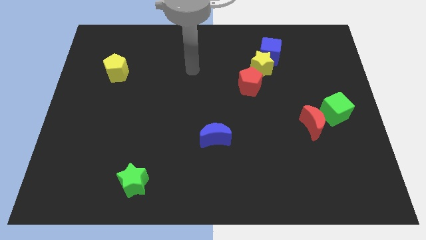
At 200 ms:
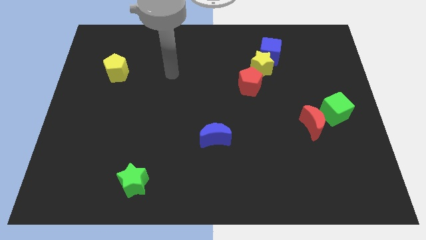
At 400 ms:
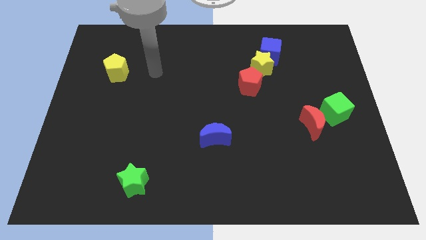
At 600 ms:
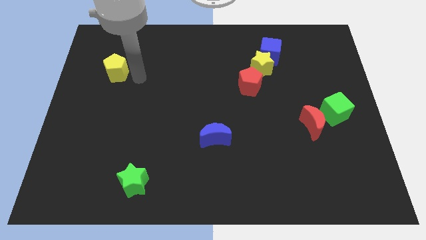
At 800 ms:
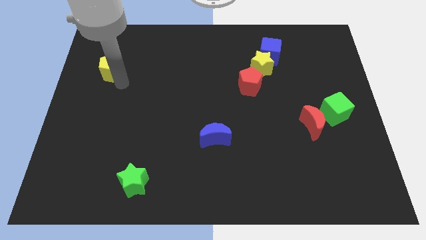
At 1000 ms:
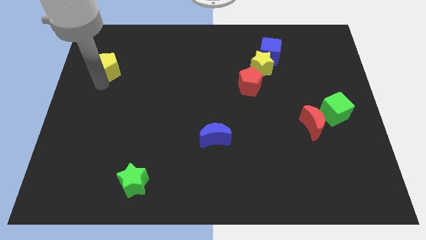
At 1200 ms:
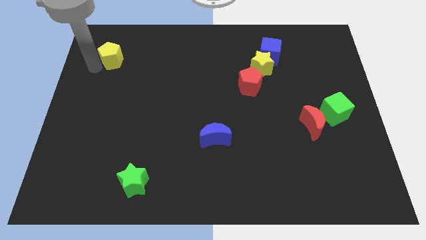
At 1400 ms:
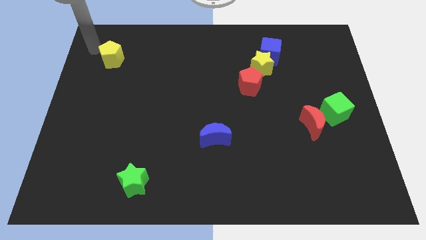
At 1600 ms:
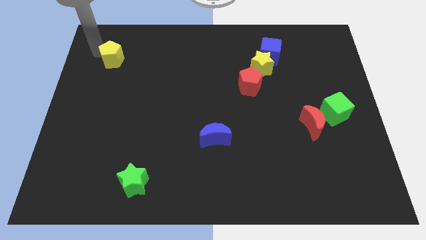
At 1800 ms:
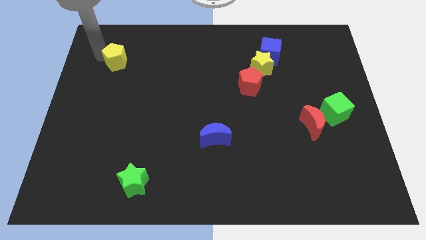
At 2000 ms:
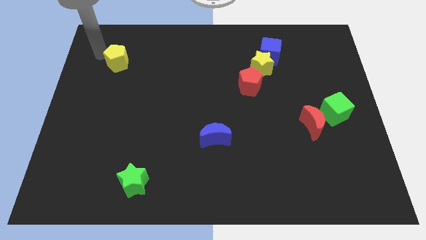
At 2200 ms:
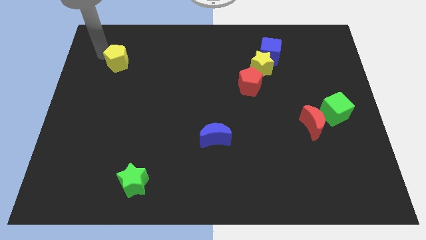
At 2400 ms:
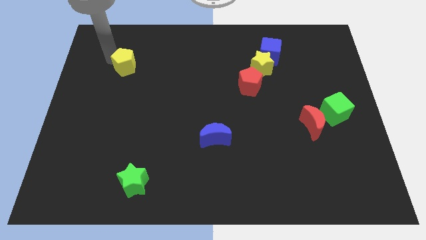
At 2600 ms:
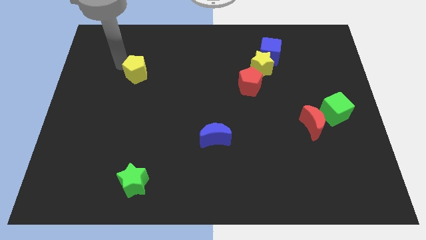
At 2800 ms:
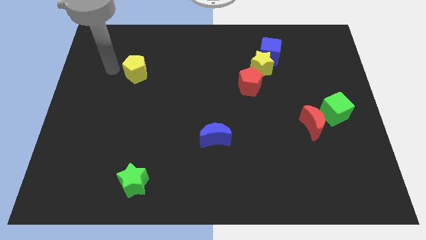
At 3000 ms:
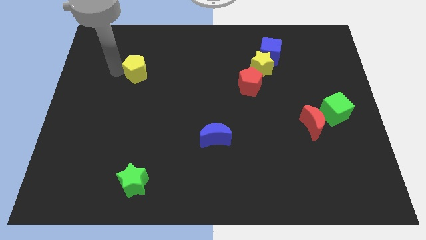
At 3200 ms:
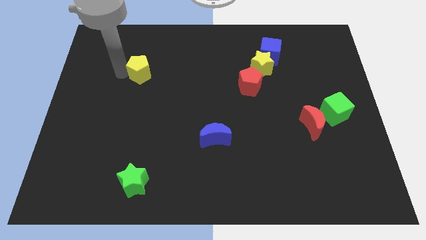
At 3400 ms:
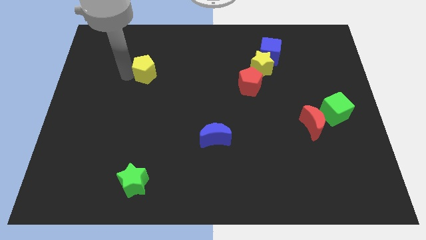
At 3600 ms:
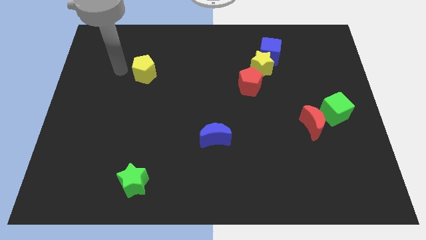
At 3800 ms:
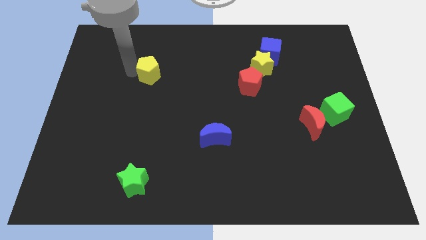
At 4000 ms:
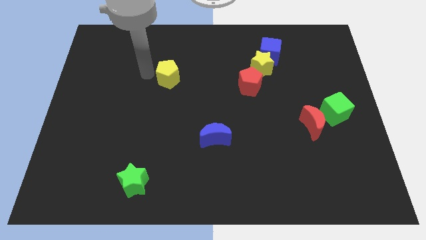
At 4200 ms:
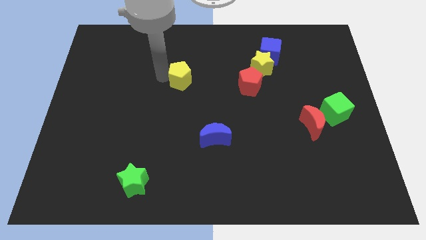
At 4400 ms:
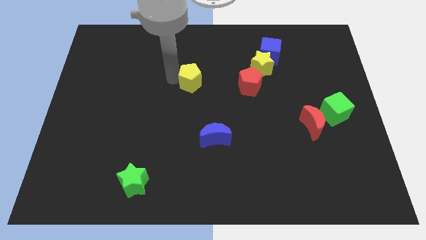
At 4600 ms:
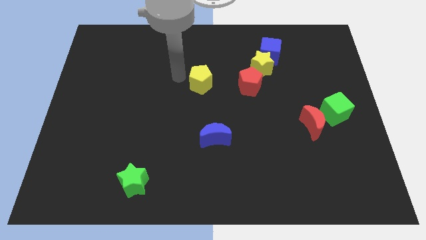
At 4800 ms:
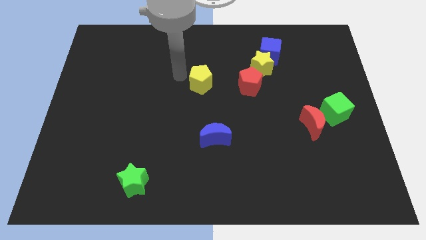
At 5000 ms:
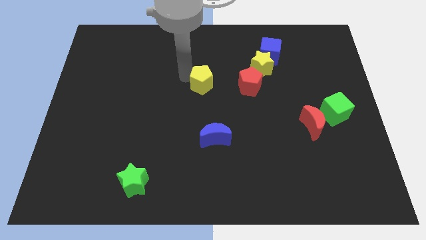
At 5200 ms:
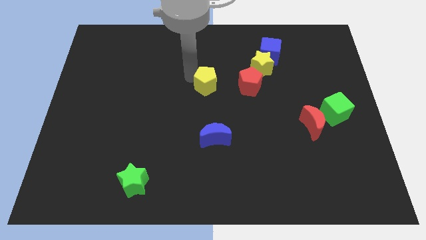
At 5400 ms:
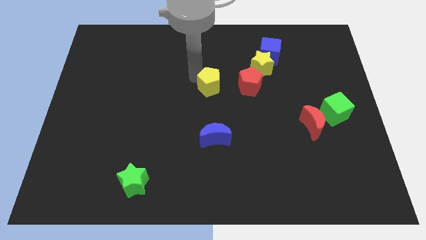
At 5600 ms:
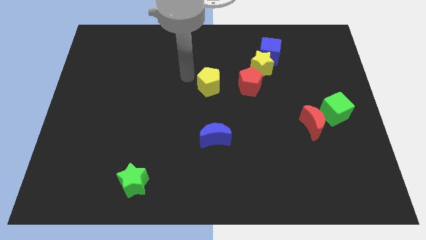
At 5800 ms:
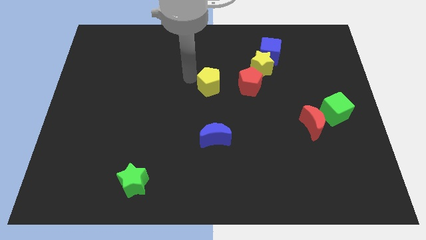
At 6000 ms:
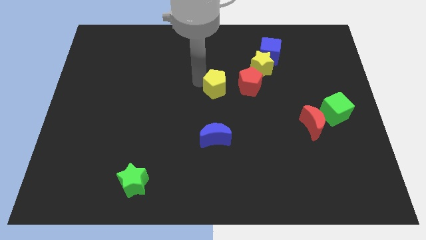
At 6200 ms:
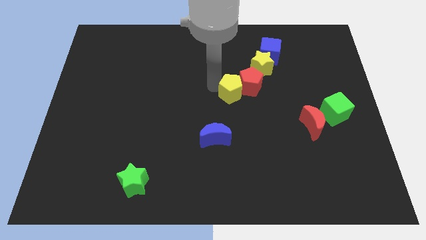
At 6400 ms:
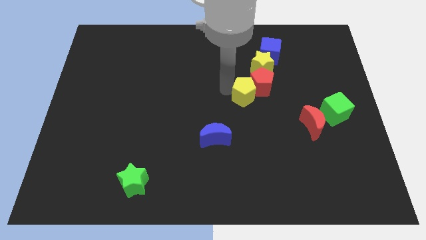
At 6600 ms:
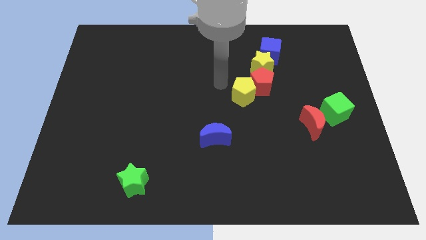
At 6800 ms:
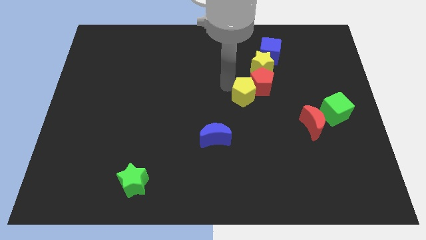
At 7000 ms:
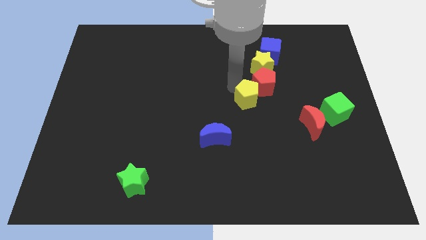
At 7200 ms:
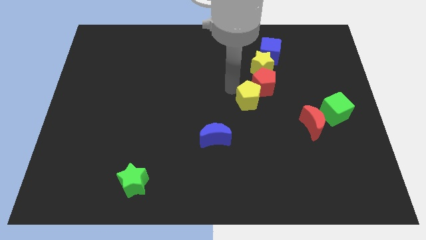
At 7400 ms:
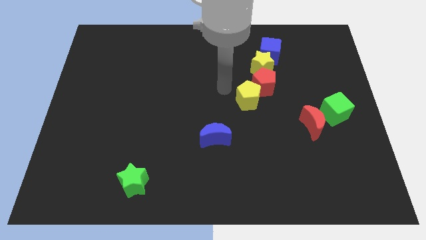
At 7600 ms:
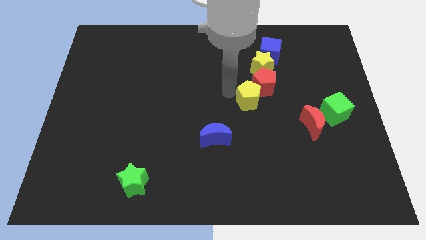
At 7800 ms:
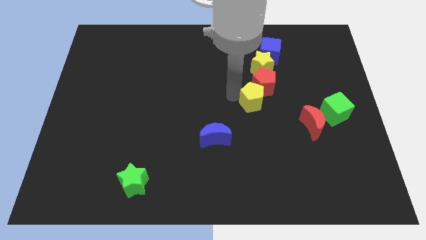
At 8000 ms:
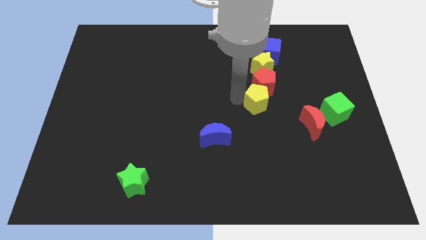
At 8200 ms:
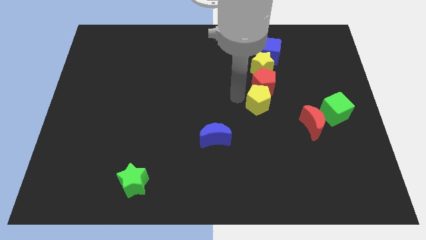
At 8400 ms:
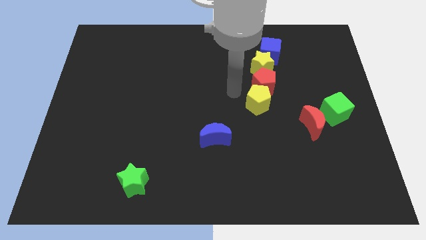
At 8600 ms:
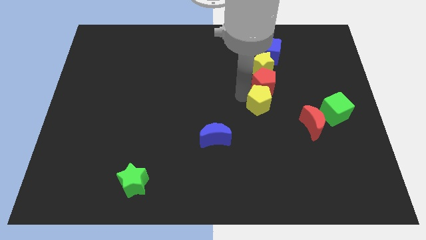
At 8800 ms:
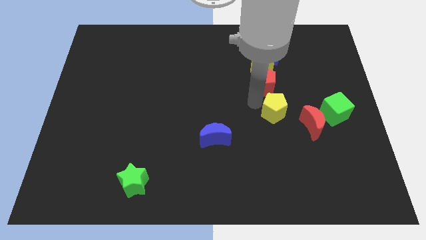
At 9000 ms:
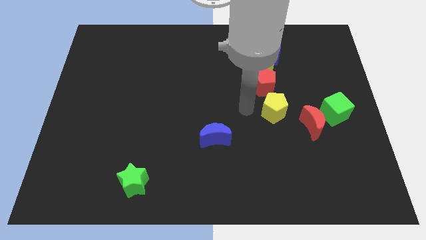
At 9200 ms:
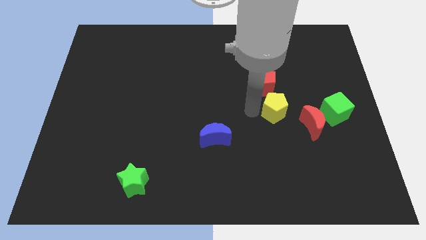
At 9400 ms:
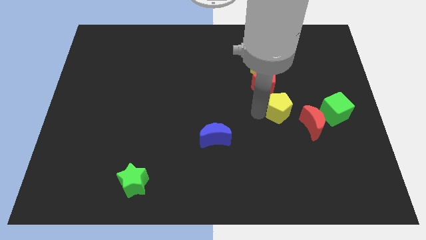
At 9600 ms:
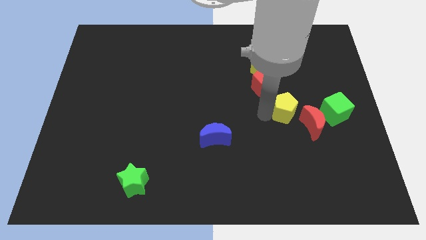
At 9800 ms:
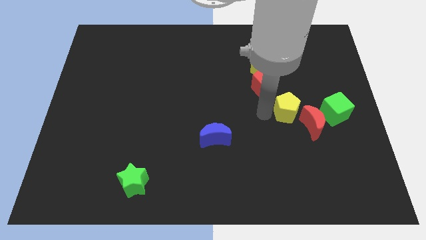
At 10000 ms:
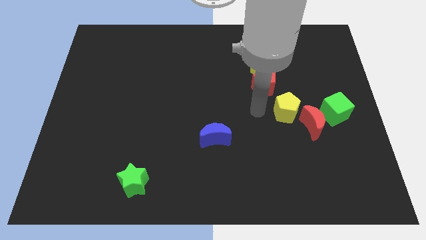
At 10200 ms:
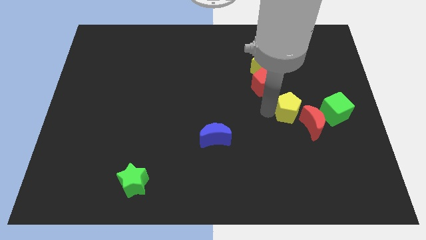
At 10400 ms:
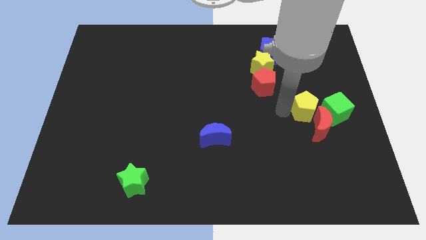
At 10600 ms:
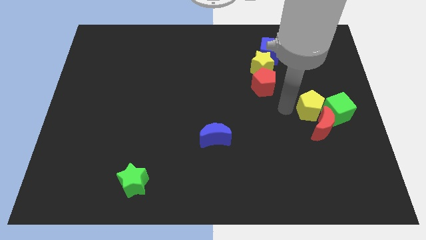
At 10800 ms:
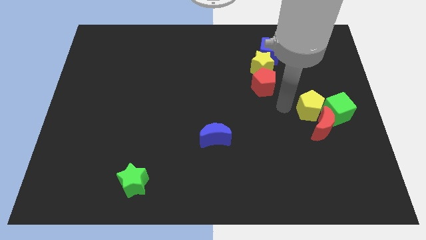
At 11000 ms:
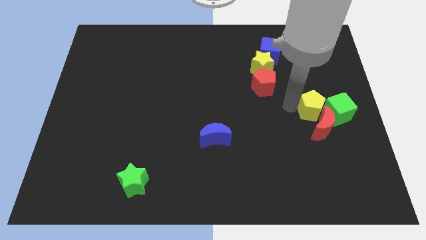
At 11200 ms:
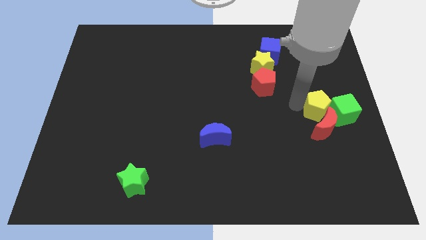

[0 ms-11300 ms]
slide the yellow pentagon next to the green cube

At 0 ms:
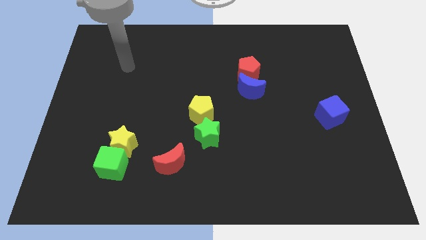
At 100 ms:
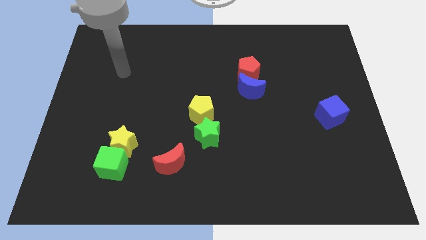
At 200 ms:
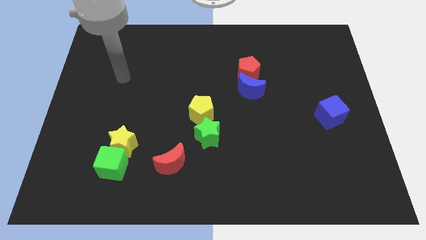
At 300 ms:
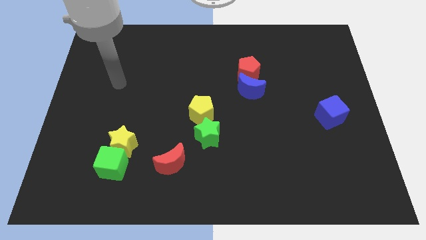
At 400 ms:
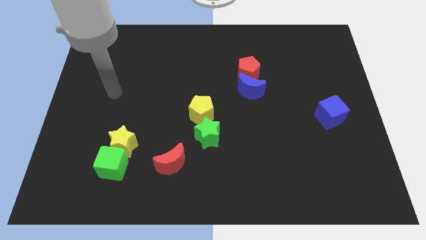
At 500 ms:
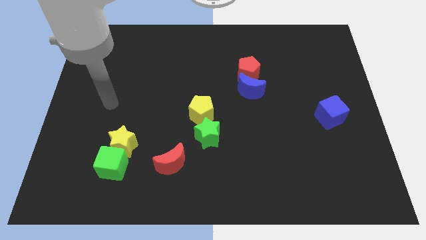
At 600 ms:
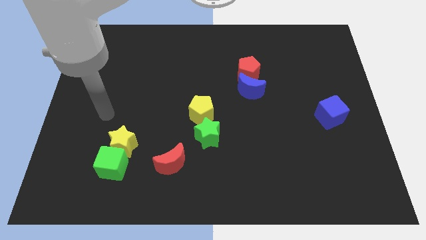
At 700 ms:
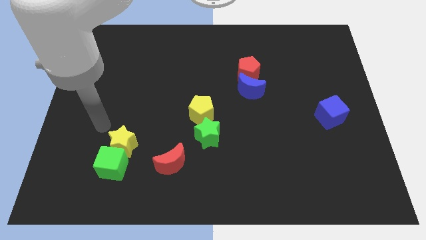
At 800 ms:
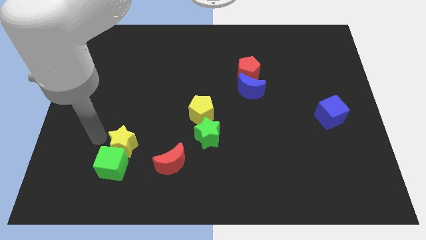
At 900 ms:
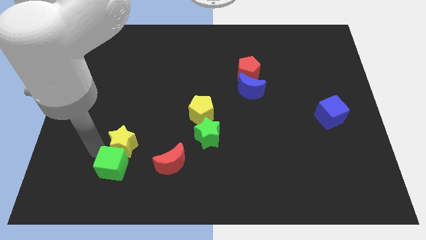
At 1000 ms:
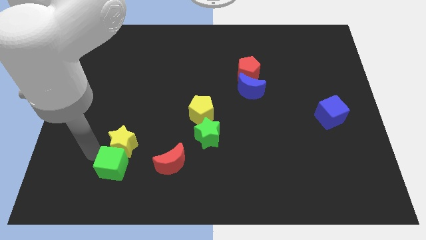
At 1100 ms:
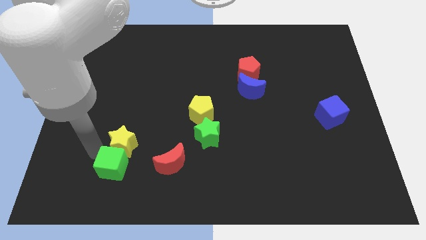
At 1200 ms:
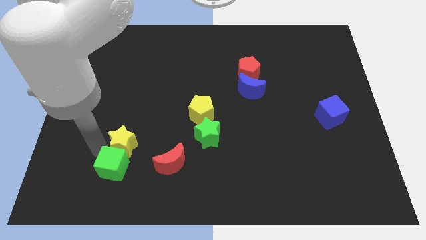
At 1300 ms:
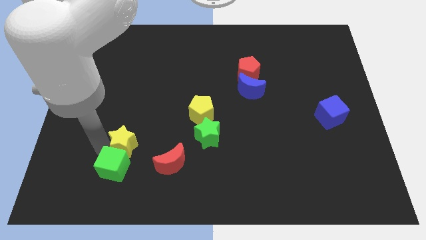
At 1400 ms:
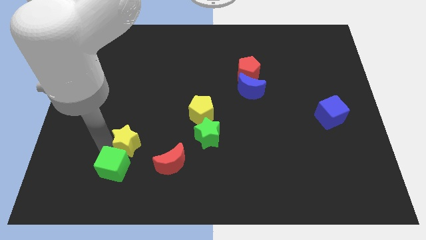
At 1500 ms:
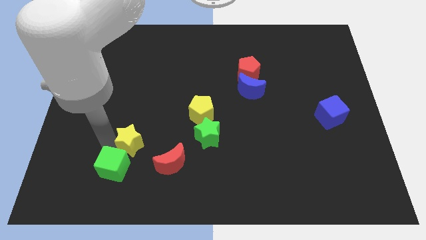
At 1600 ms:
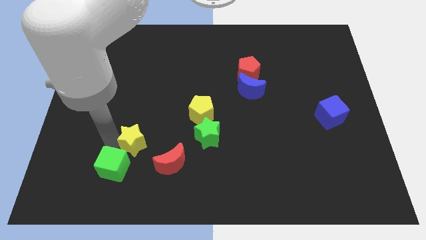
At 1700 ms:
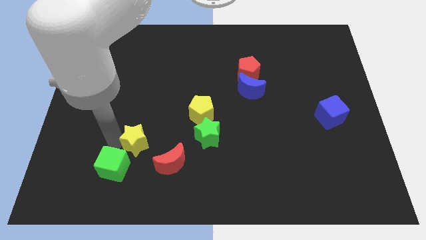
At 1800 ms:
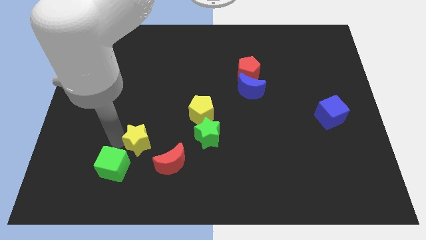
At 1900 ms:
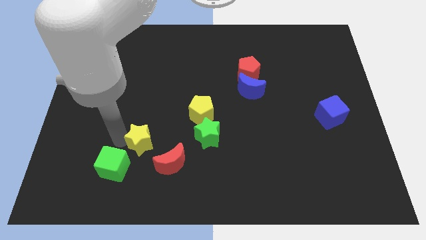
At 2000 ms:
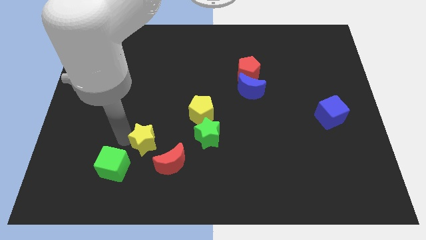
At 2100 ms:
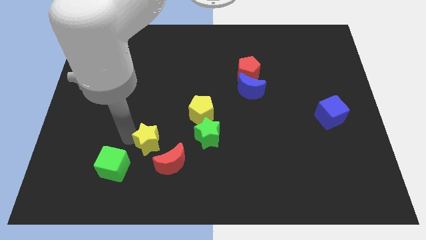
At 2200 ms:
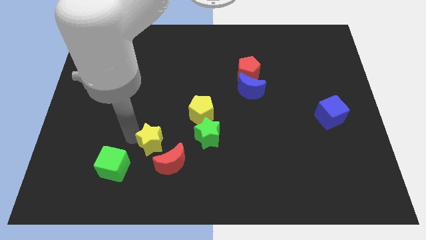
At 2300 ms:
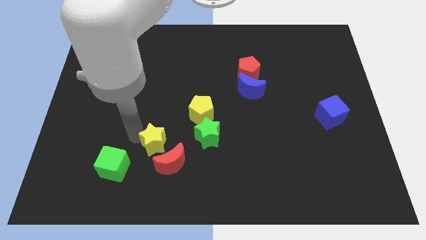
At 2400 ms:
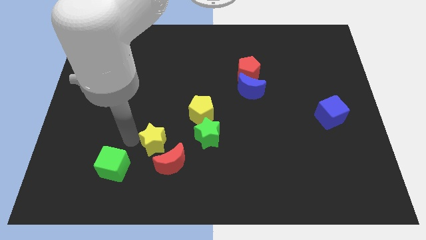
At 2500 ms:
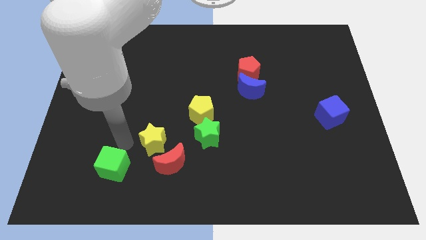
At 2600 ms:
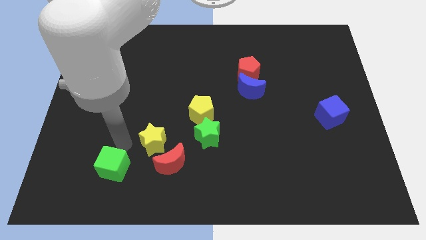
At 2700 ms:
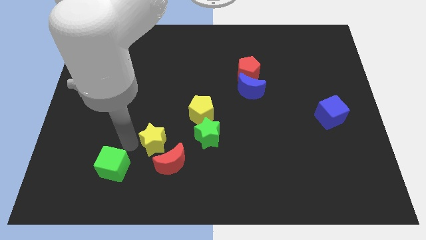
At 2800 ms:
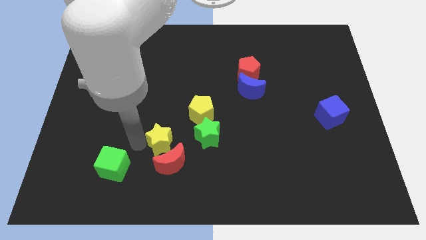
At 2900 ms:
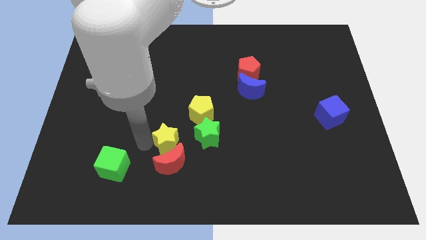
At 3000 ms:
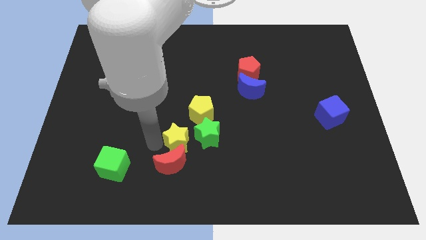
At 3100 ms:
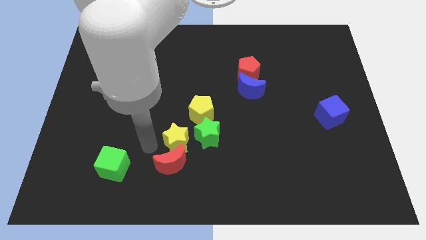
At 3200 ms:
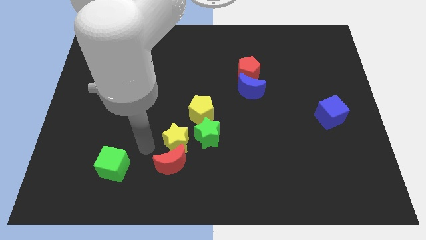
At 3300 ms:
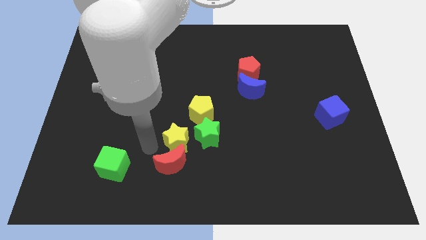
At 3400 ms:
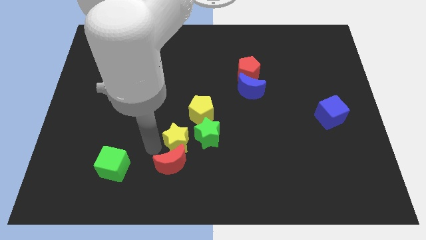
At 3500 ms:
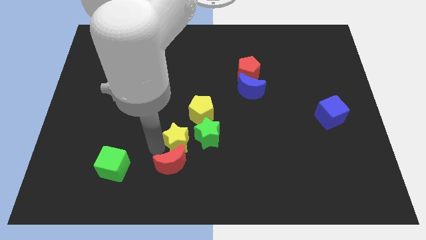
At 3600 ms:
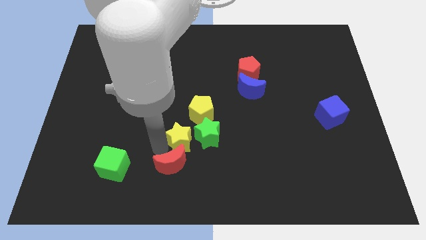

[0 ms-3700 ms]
move the yellow star to the green star
